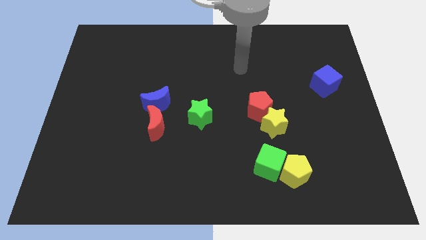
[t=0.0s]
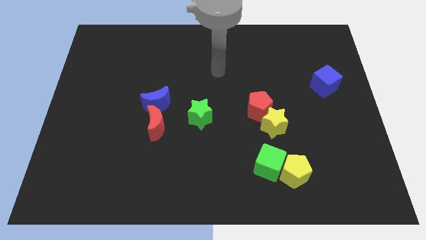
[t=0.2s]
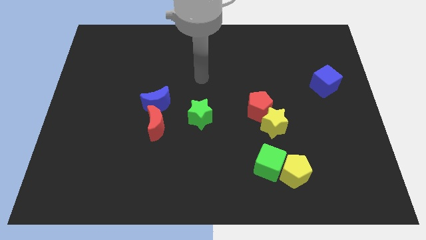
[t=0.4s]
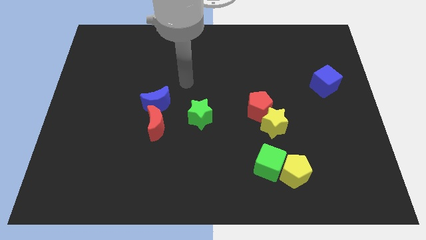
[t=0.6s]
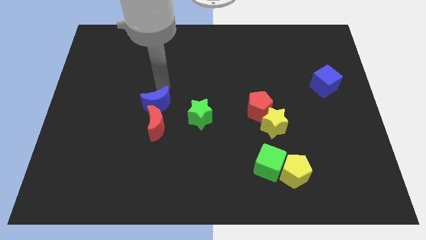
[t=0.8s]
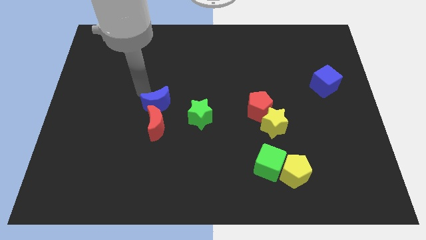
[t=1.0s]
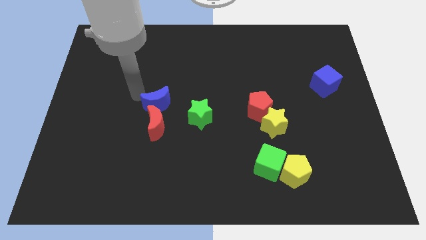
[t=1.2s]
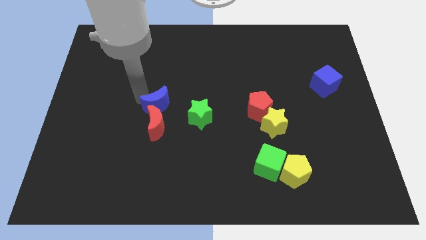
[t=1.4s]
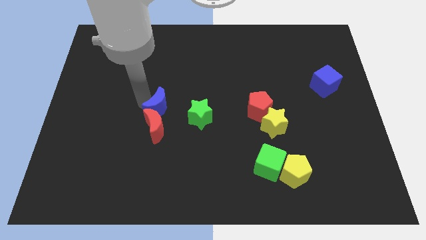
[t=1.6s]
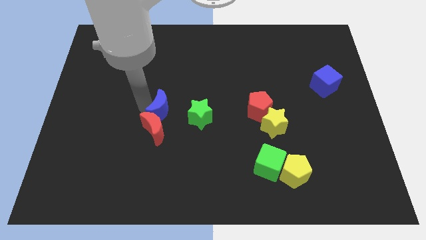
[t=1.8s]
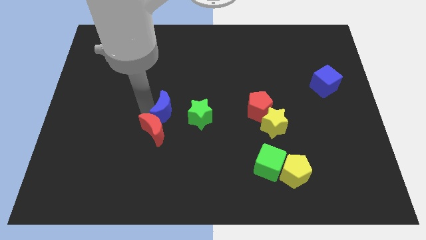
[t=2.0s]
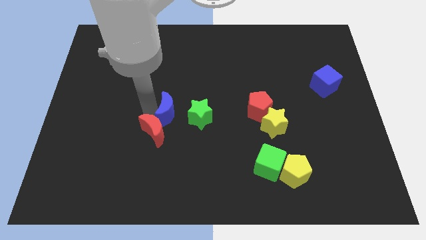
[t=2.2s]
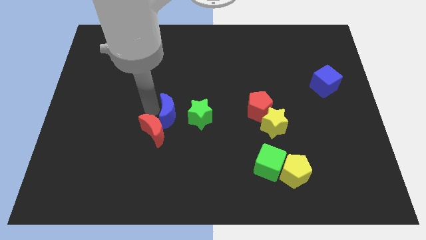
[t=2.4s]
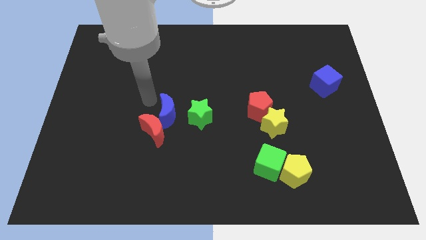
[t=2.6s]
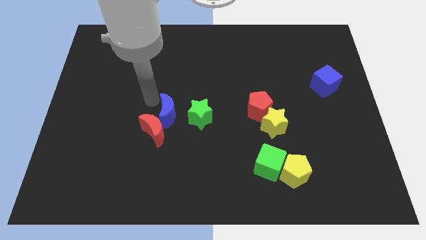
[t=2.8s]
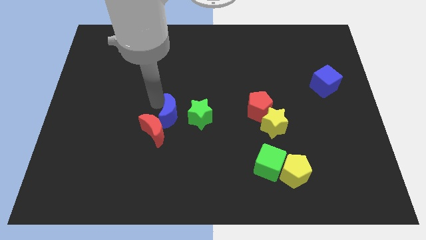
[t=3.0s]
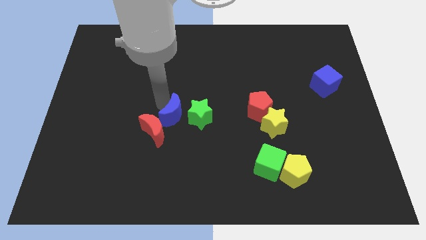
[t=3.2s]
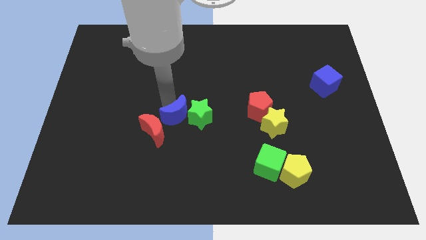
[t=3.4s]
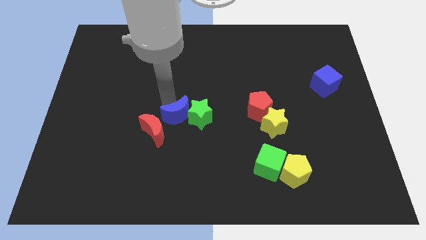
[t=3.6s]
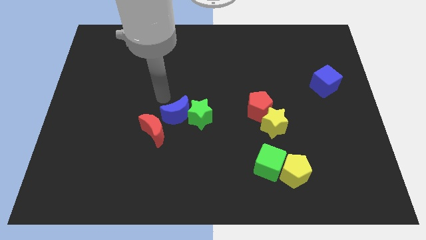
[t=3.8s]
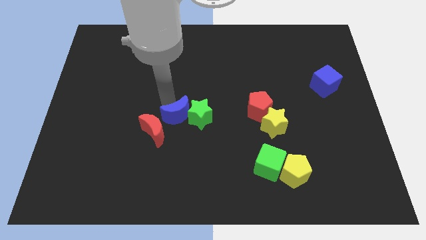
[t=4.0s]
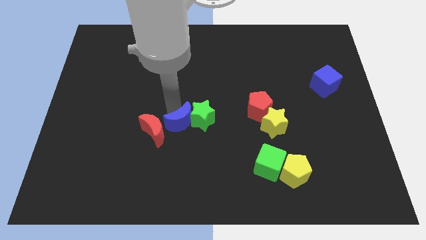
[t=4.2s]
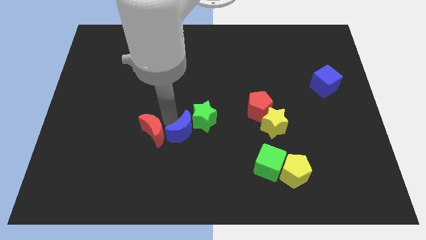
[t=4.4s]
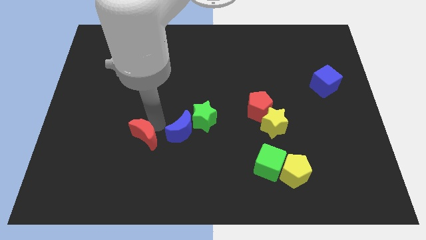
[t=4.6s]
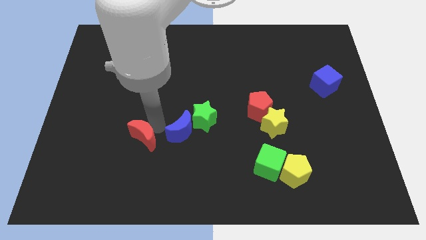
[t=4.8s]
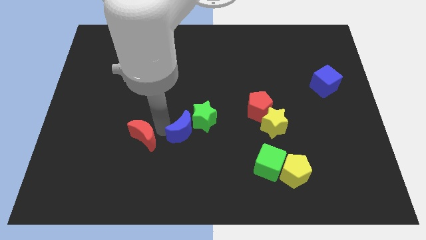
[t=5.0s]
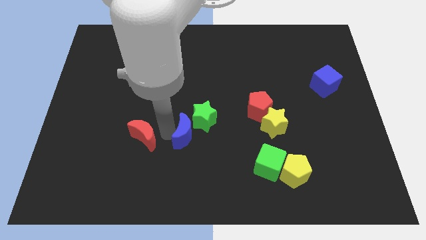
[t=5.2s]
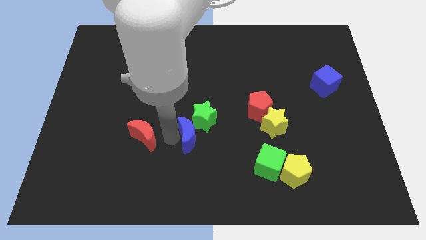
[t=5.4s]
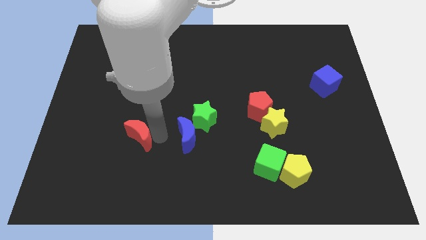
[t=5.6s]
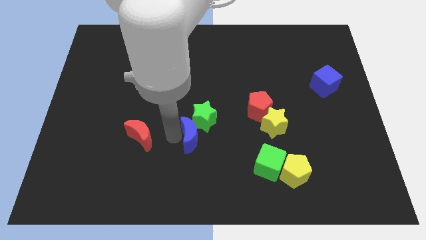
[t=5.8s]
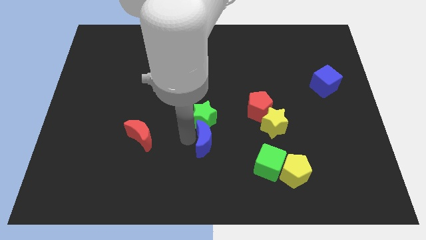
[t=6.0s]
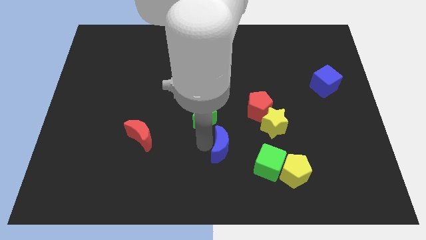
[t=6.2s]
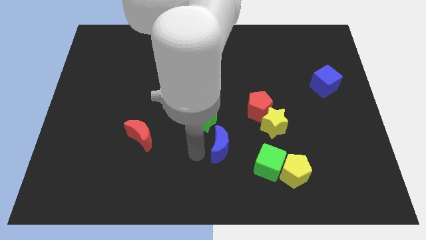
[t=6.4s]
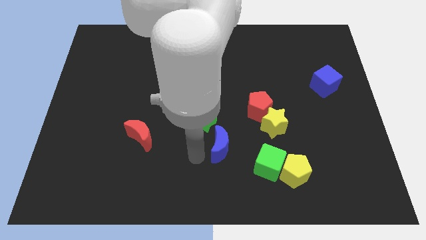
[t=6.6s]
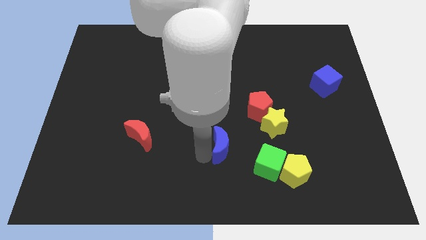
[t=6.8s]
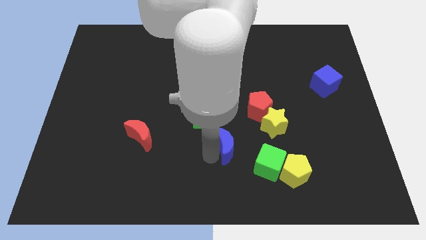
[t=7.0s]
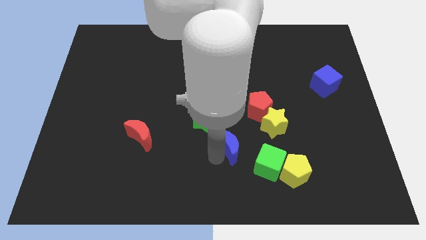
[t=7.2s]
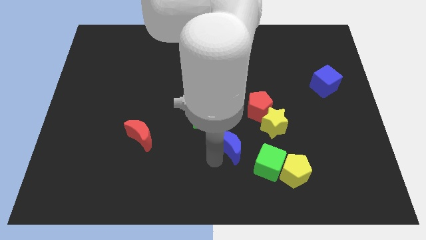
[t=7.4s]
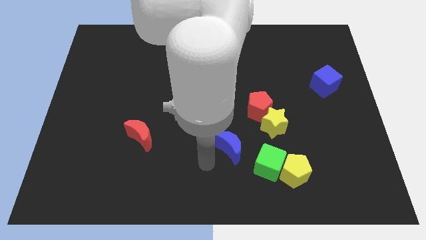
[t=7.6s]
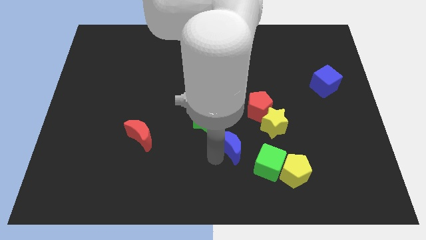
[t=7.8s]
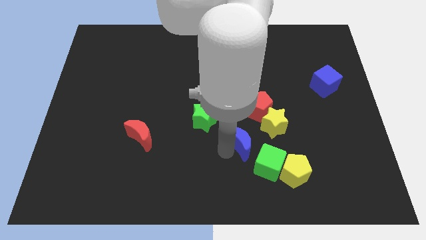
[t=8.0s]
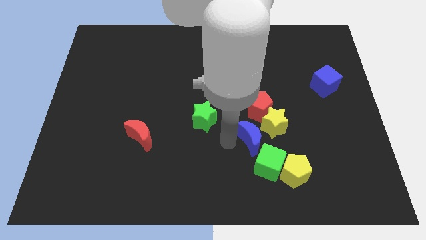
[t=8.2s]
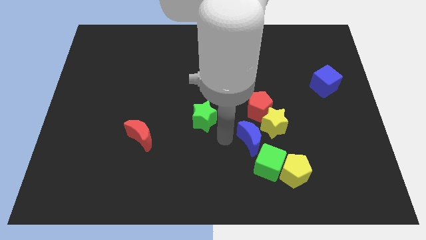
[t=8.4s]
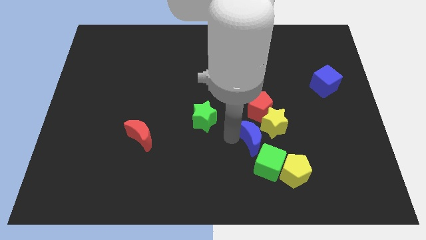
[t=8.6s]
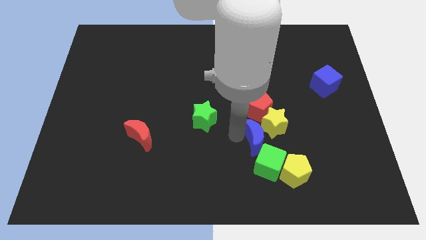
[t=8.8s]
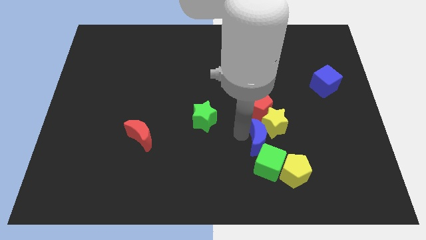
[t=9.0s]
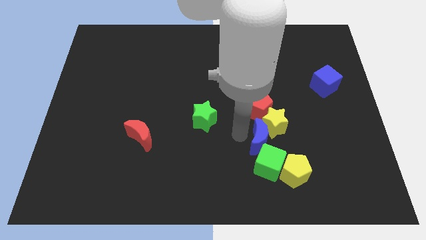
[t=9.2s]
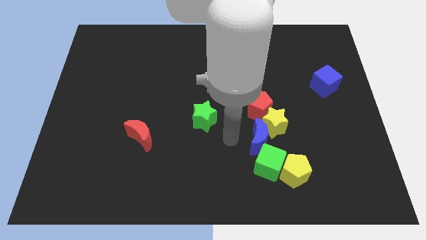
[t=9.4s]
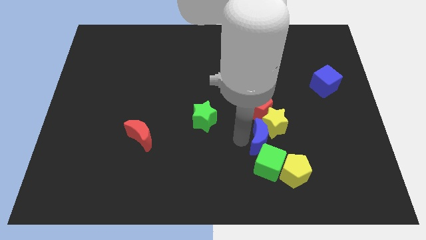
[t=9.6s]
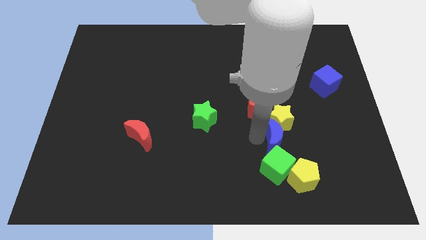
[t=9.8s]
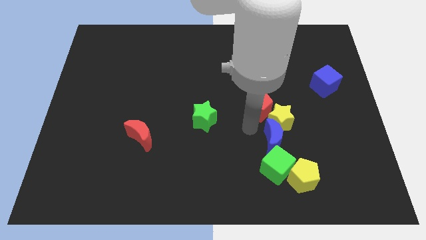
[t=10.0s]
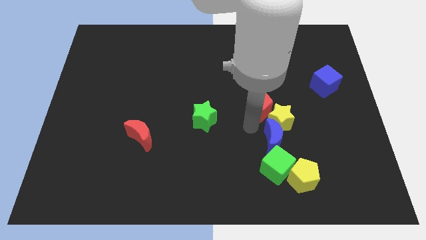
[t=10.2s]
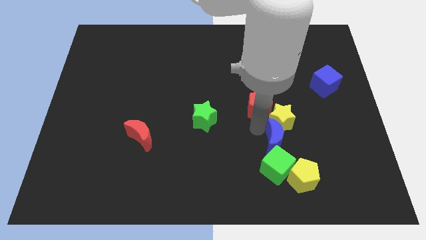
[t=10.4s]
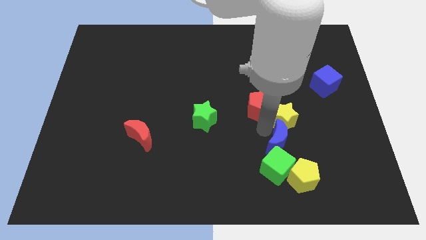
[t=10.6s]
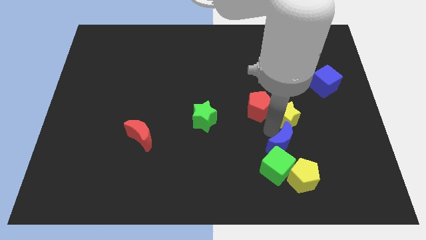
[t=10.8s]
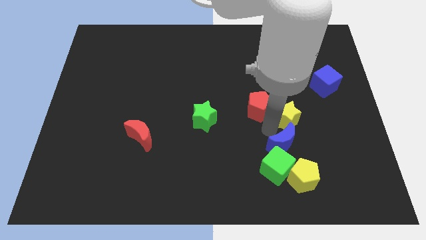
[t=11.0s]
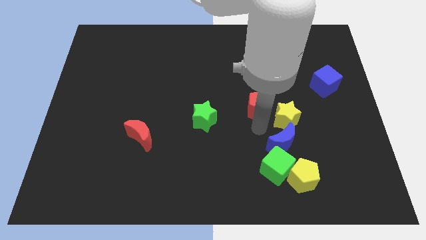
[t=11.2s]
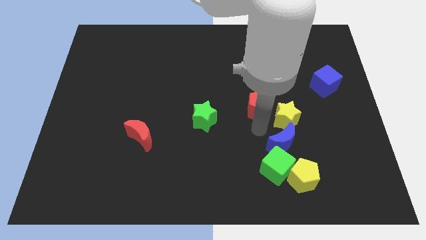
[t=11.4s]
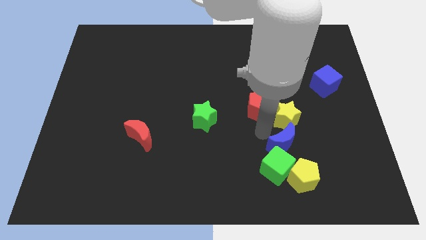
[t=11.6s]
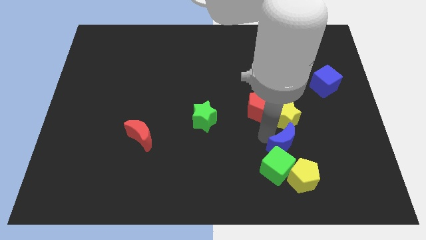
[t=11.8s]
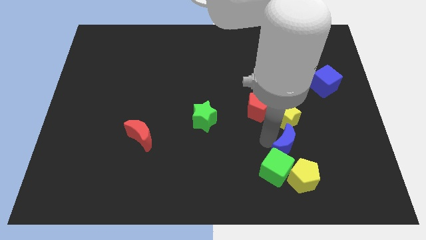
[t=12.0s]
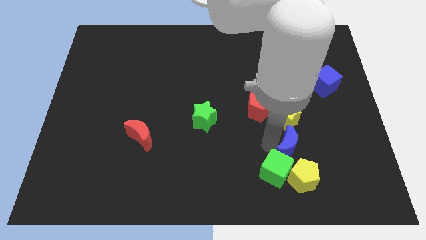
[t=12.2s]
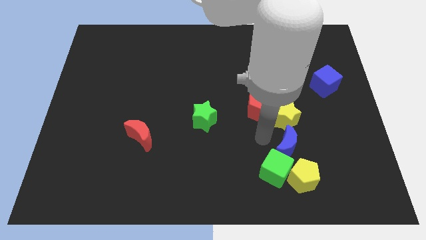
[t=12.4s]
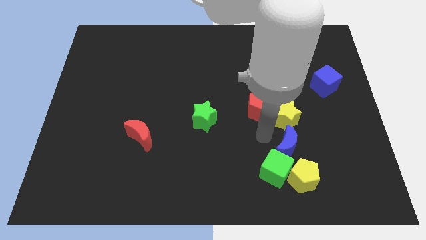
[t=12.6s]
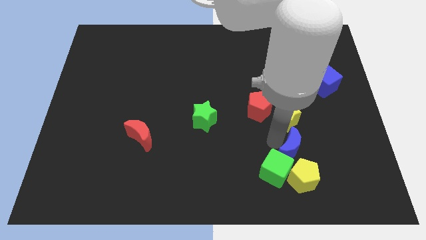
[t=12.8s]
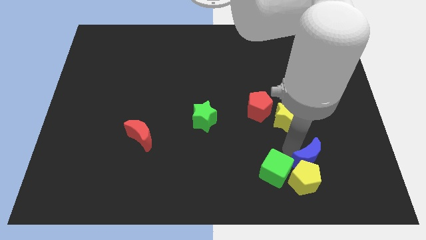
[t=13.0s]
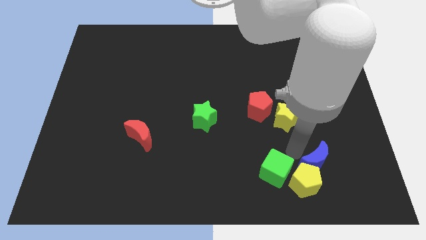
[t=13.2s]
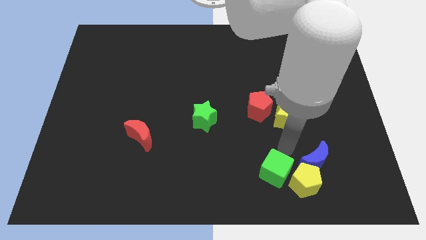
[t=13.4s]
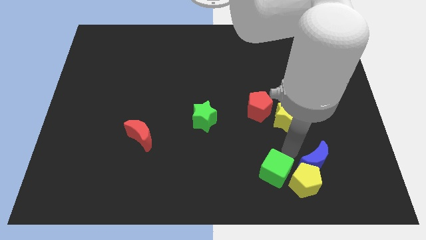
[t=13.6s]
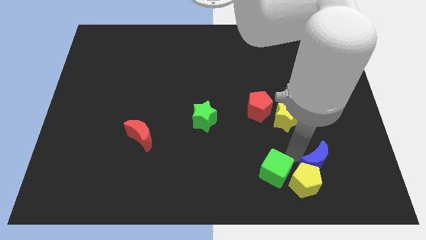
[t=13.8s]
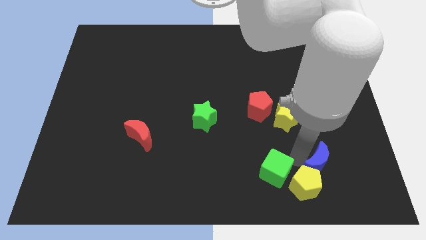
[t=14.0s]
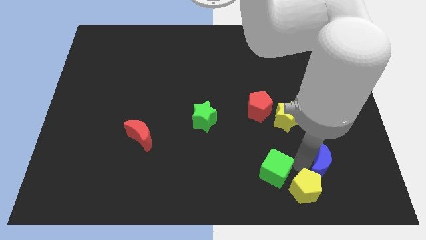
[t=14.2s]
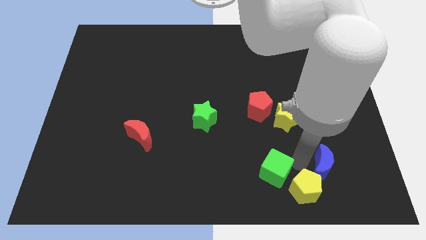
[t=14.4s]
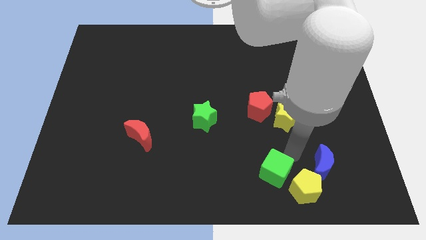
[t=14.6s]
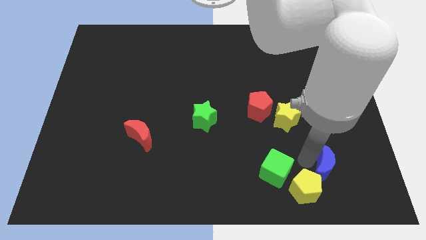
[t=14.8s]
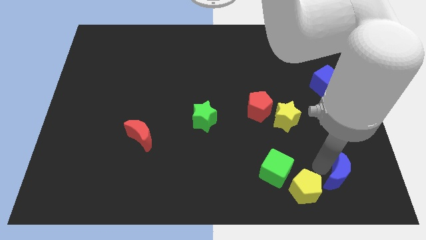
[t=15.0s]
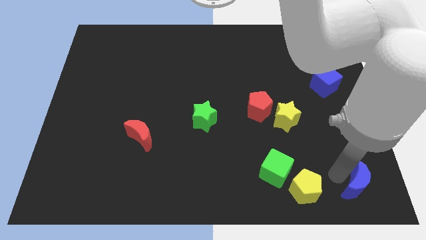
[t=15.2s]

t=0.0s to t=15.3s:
move the blue moon to the lower right corner
